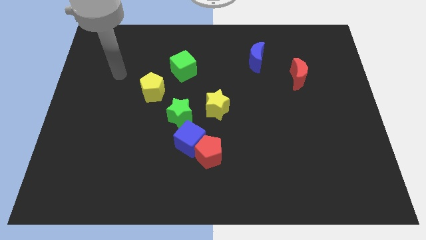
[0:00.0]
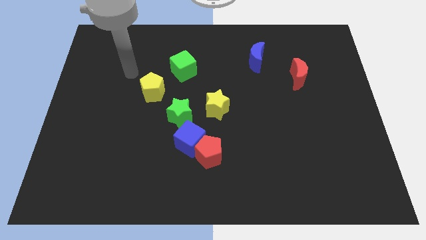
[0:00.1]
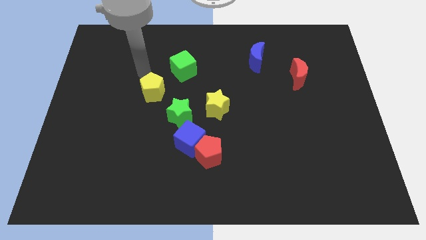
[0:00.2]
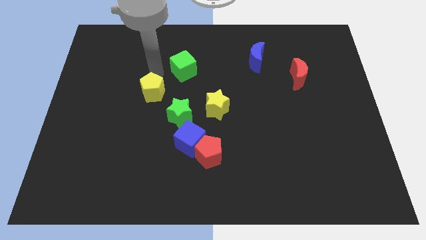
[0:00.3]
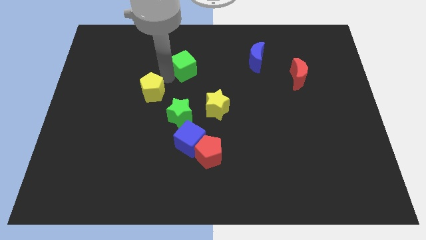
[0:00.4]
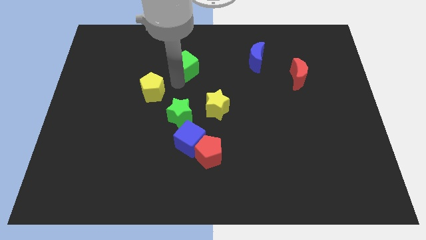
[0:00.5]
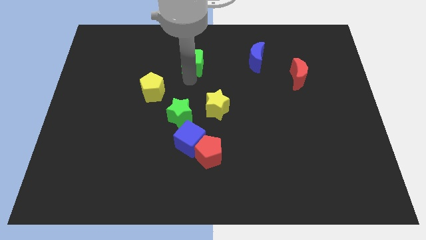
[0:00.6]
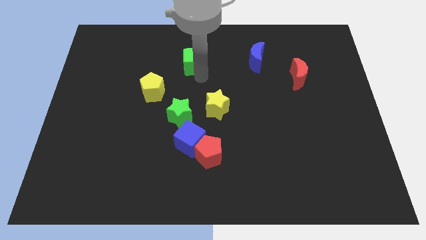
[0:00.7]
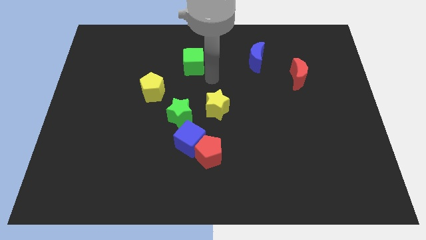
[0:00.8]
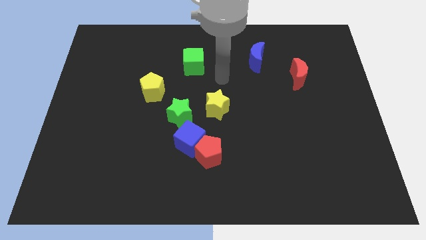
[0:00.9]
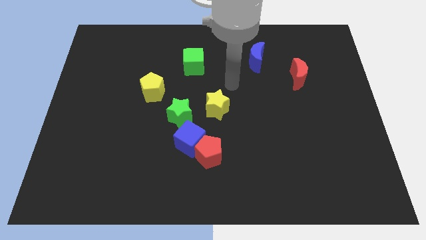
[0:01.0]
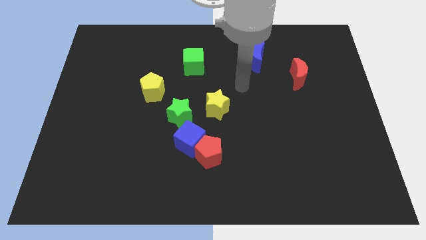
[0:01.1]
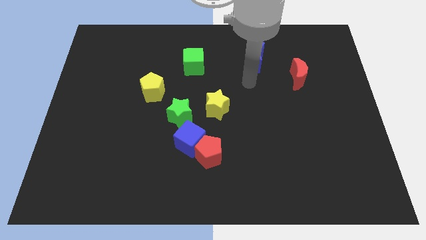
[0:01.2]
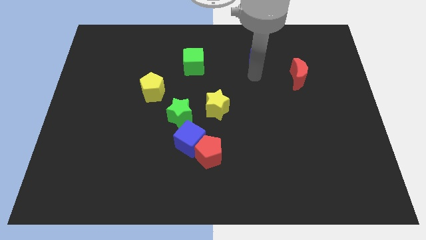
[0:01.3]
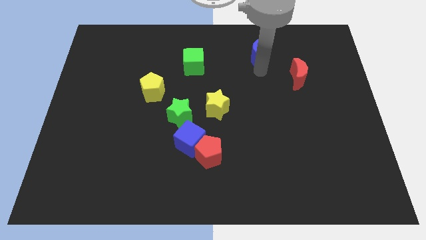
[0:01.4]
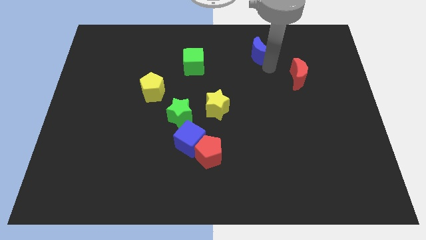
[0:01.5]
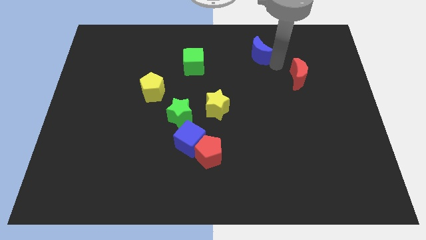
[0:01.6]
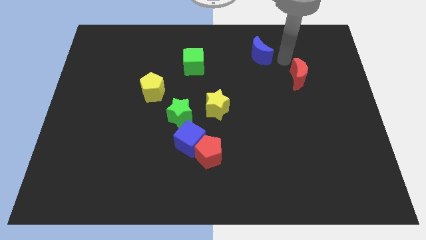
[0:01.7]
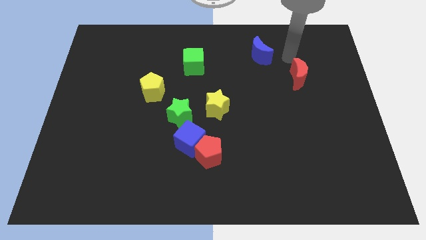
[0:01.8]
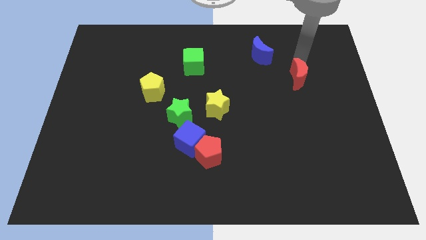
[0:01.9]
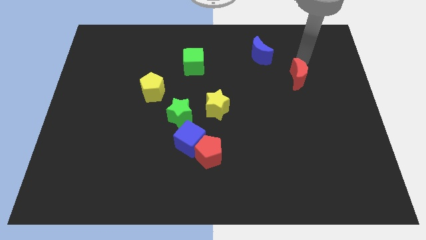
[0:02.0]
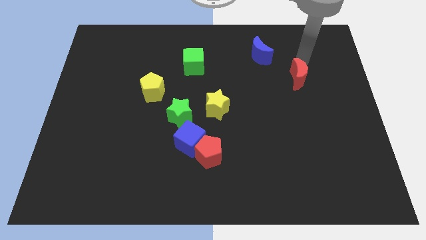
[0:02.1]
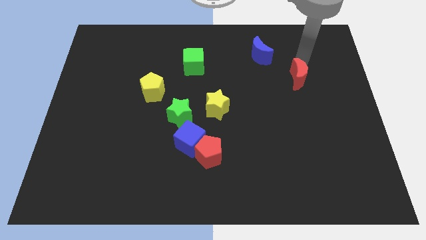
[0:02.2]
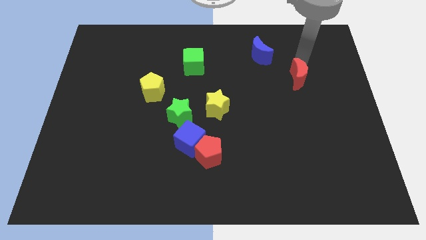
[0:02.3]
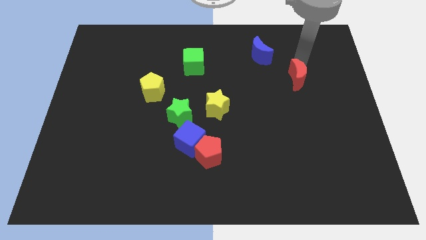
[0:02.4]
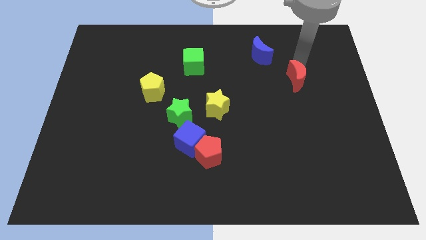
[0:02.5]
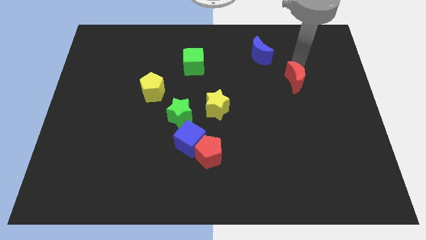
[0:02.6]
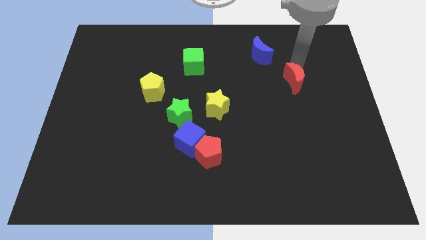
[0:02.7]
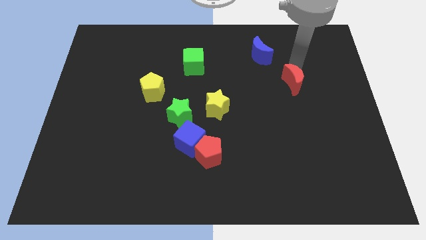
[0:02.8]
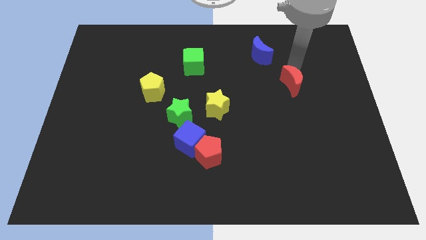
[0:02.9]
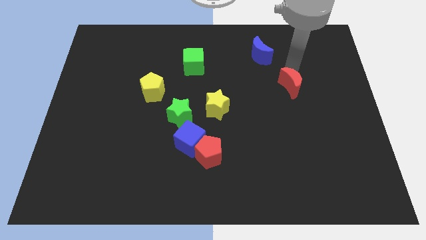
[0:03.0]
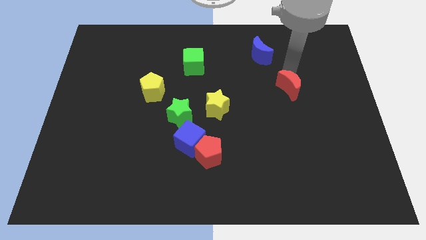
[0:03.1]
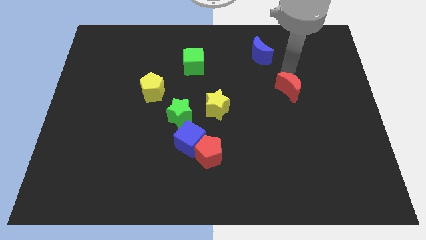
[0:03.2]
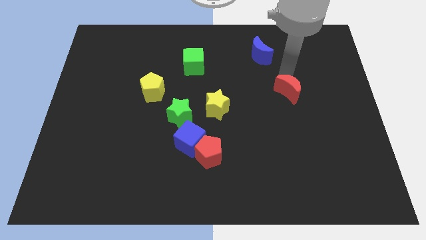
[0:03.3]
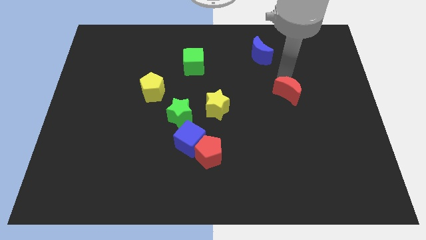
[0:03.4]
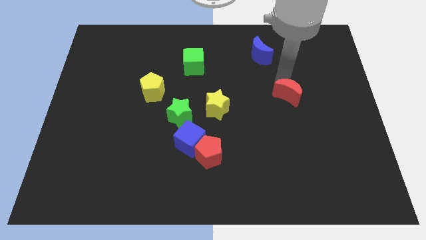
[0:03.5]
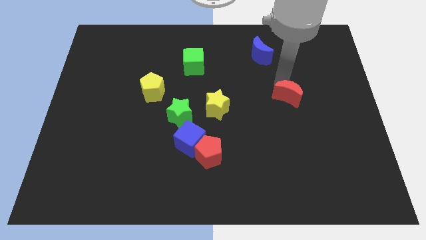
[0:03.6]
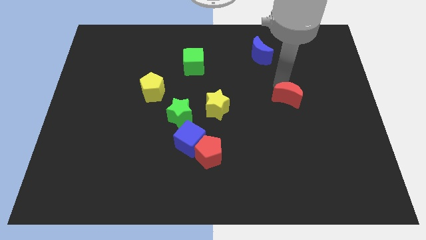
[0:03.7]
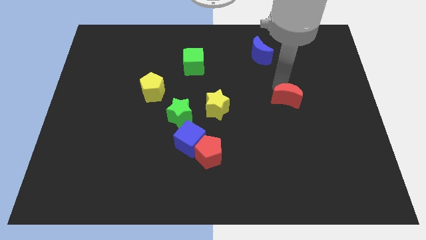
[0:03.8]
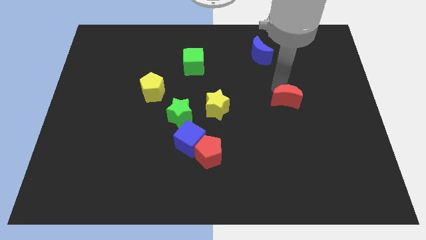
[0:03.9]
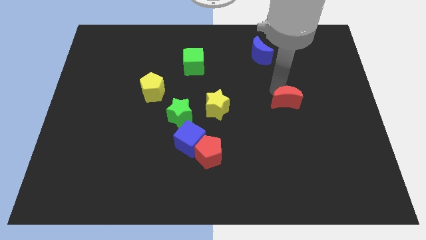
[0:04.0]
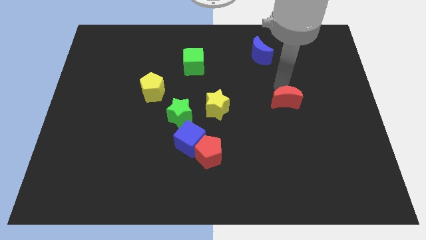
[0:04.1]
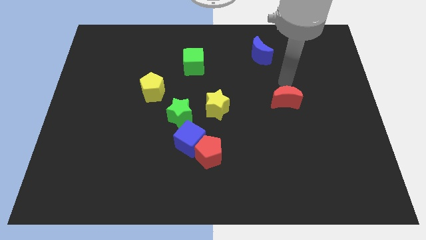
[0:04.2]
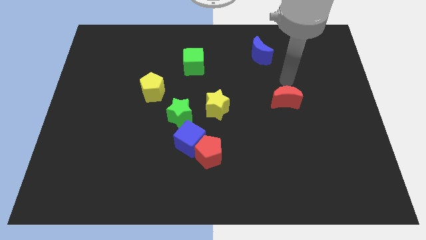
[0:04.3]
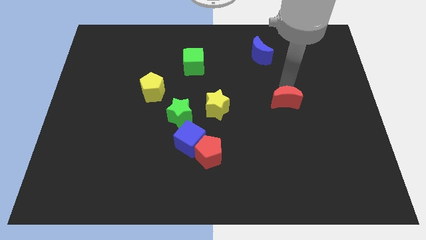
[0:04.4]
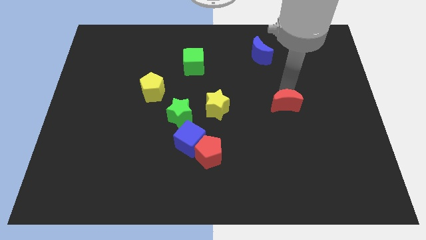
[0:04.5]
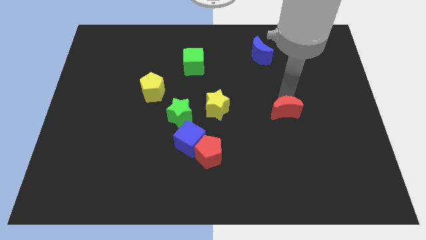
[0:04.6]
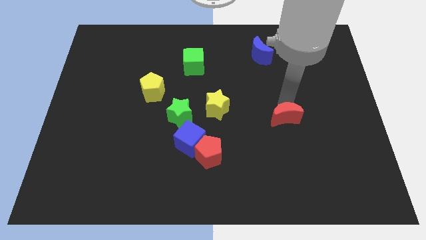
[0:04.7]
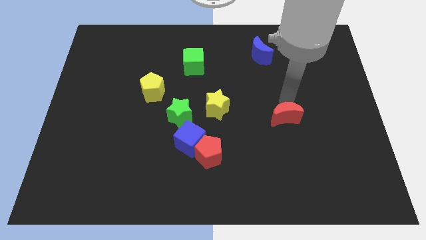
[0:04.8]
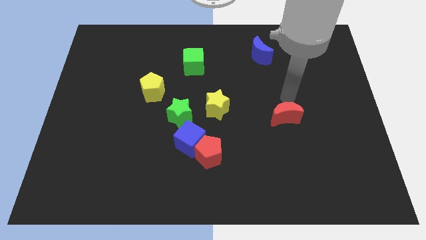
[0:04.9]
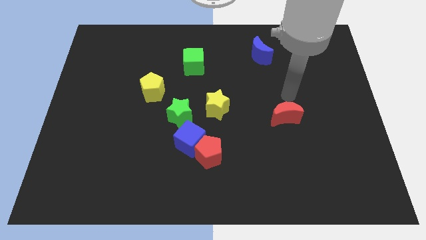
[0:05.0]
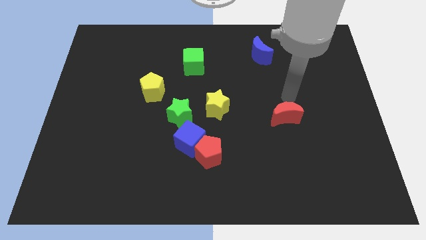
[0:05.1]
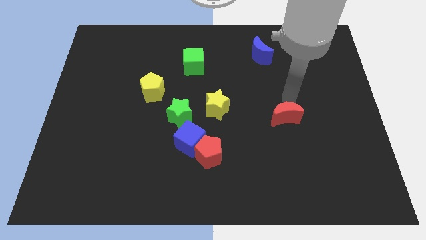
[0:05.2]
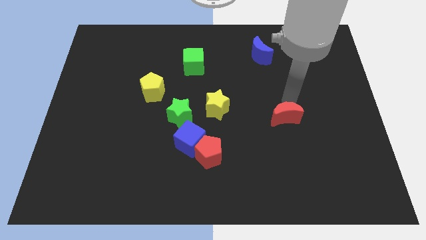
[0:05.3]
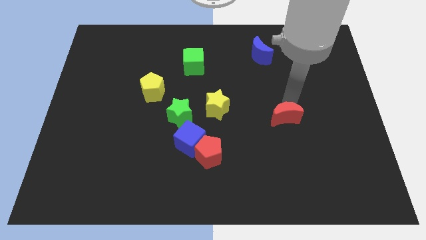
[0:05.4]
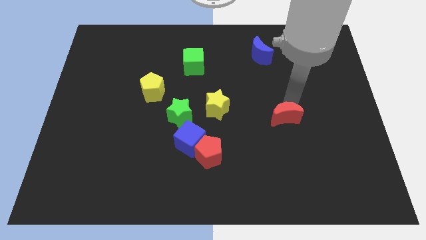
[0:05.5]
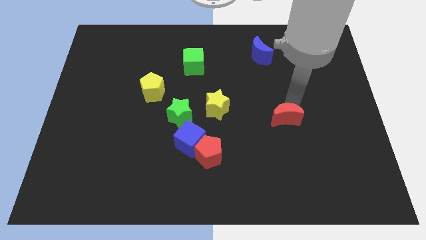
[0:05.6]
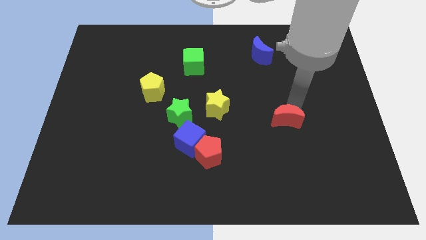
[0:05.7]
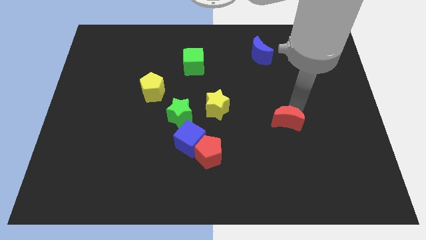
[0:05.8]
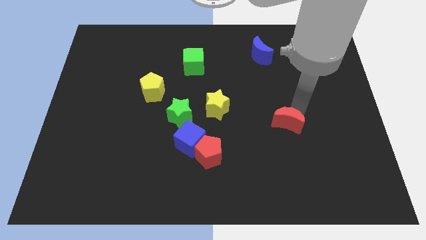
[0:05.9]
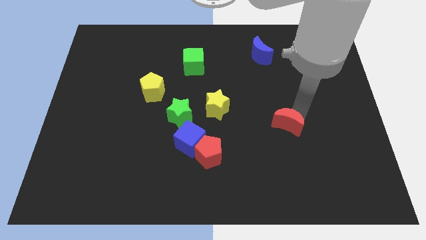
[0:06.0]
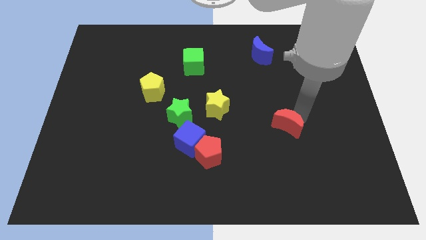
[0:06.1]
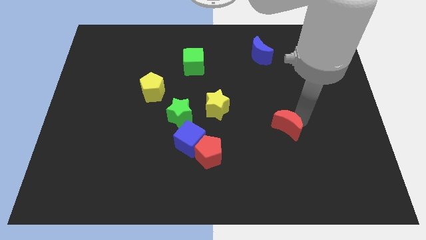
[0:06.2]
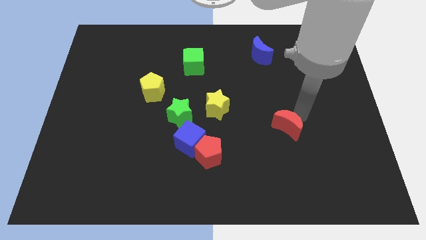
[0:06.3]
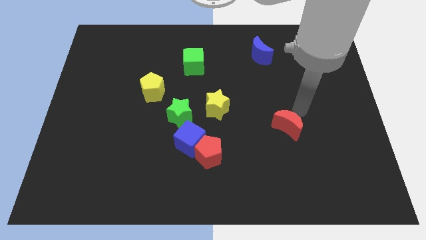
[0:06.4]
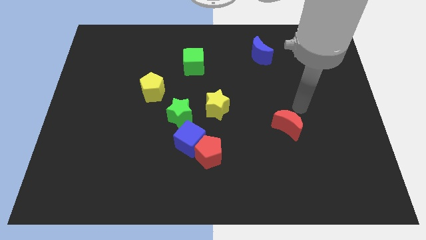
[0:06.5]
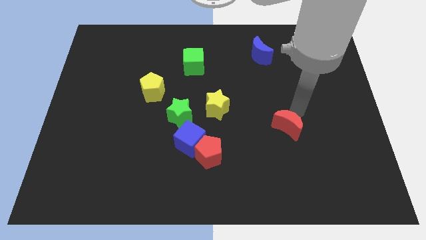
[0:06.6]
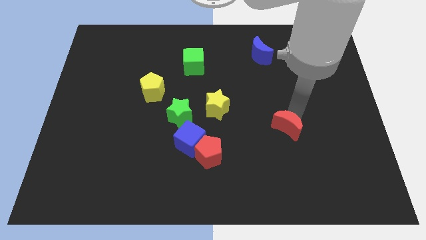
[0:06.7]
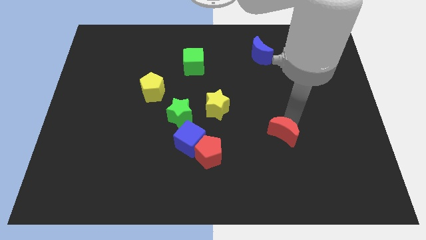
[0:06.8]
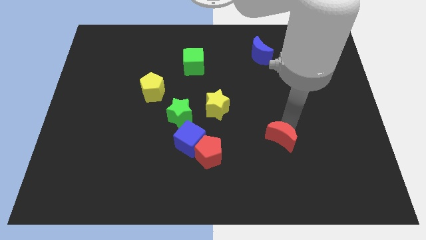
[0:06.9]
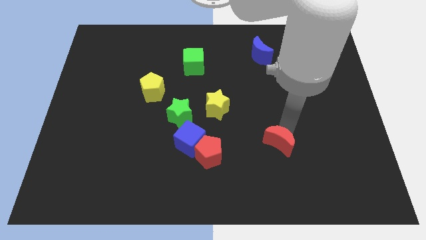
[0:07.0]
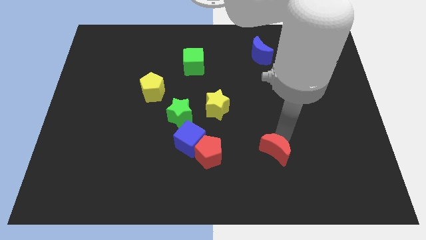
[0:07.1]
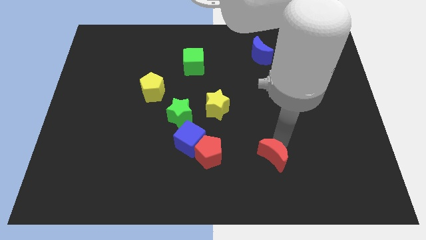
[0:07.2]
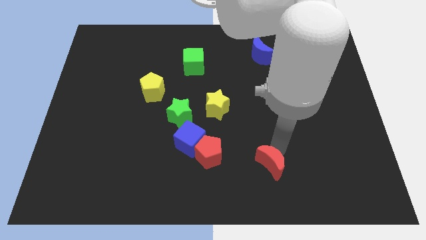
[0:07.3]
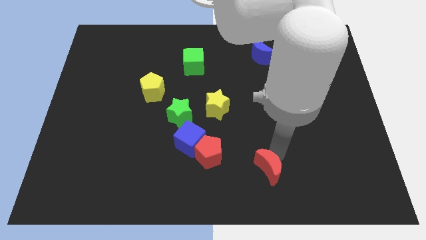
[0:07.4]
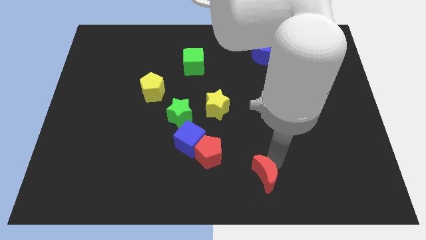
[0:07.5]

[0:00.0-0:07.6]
move the red moon to the bottom
